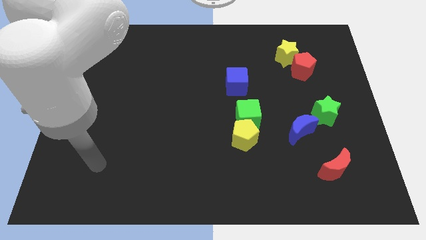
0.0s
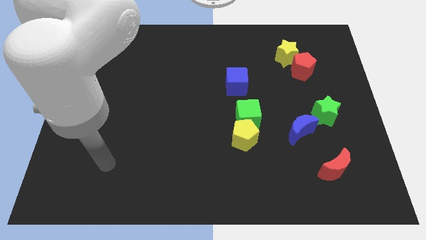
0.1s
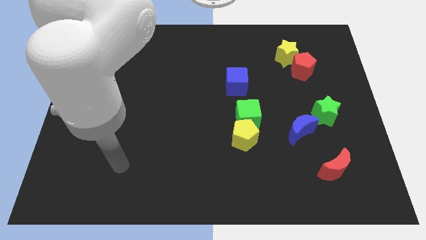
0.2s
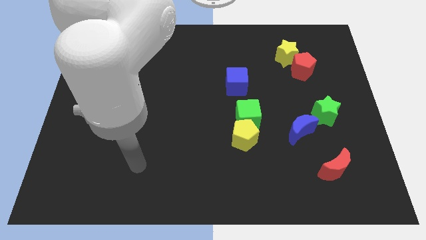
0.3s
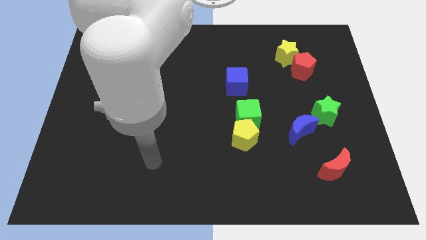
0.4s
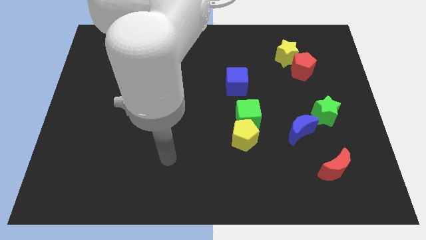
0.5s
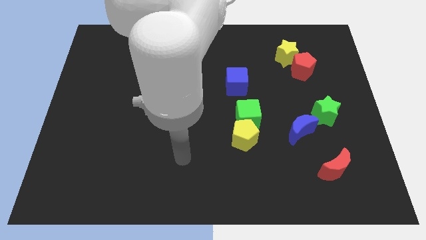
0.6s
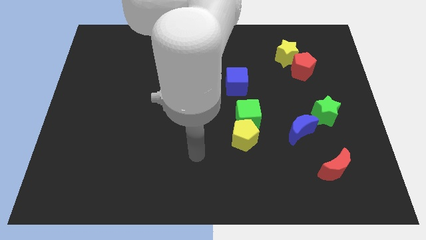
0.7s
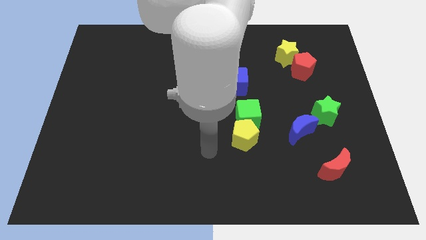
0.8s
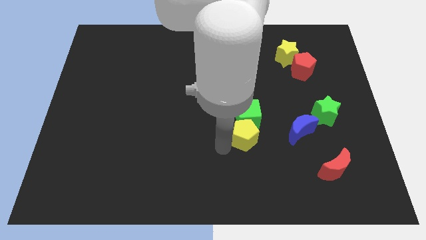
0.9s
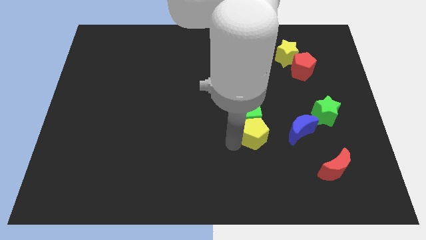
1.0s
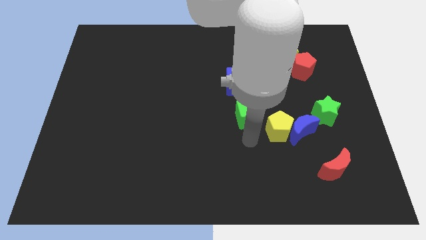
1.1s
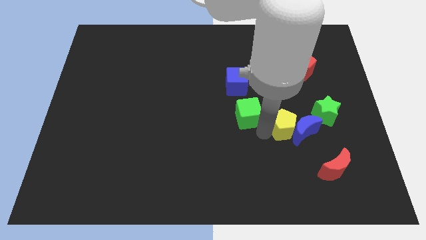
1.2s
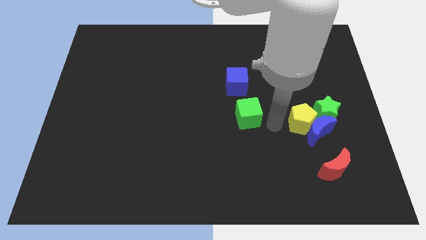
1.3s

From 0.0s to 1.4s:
move the green cube away from the yellow pentagon

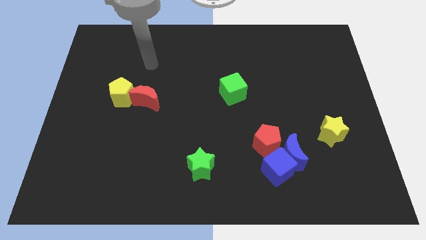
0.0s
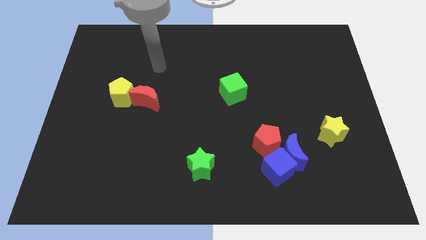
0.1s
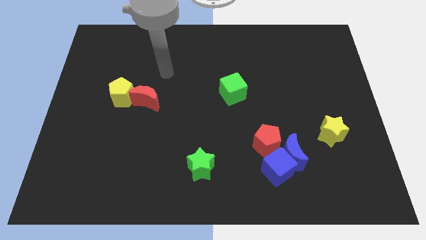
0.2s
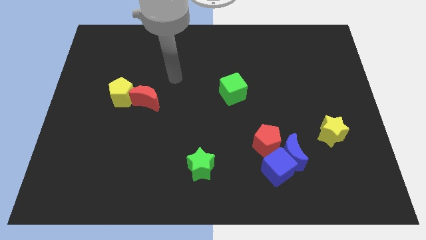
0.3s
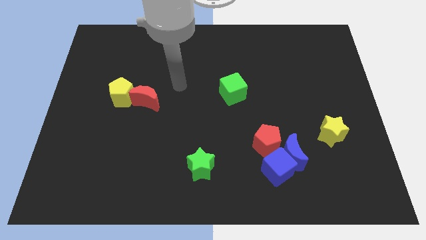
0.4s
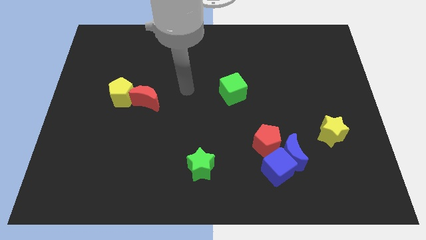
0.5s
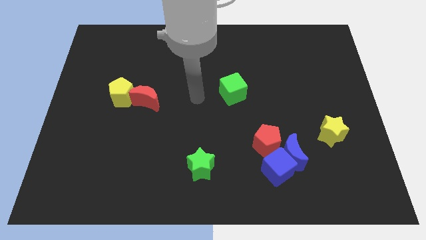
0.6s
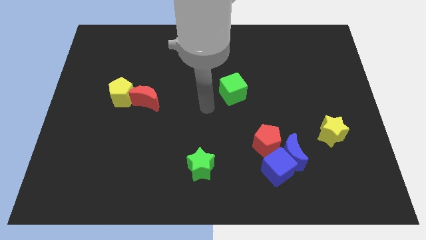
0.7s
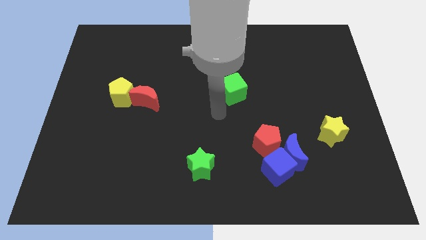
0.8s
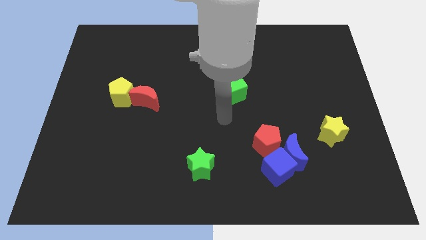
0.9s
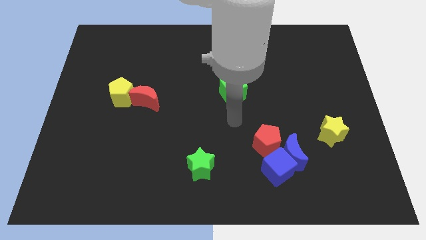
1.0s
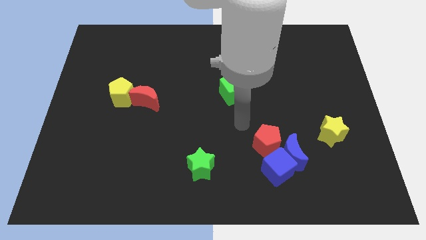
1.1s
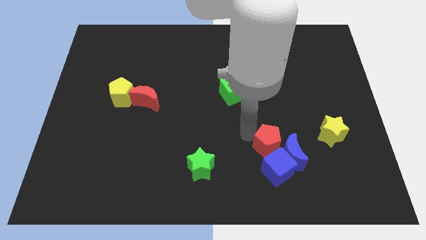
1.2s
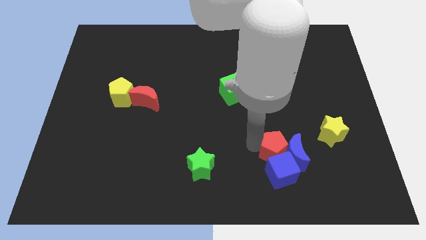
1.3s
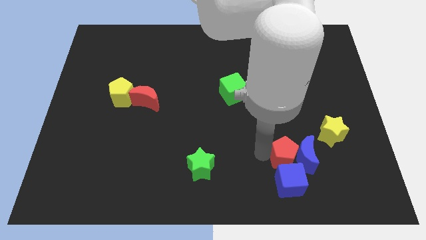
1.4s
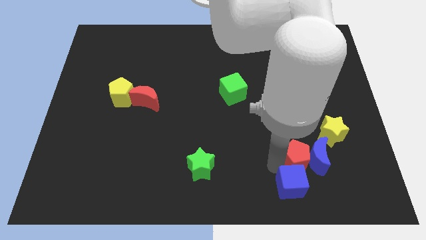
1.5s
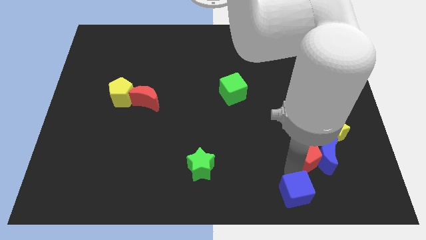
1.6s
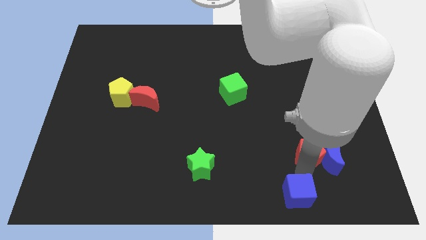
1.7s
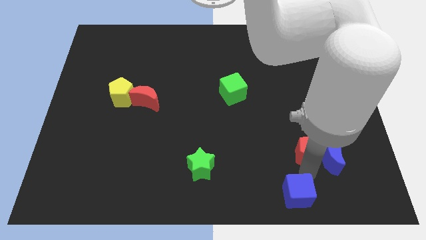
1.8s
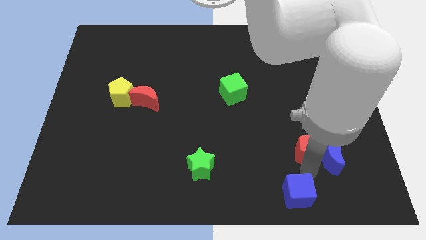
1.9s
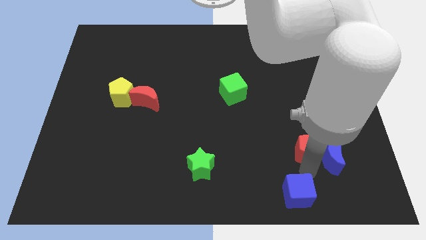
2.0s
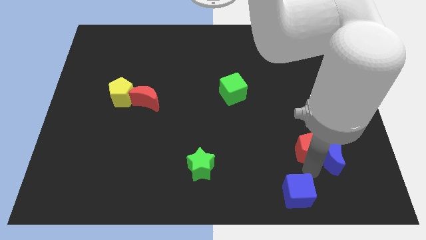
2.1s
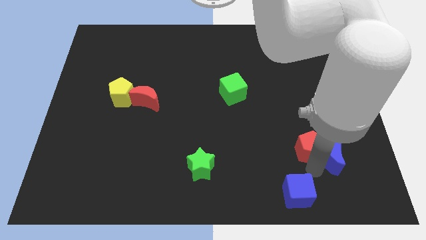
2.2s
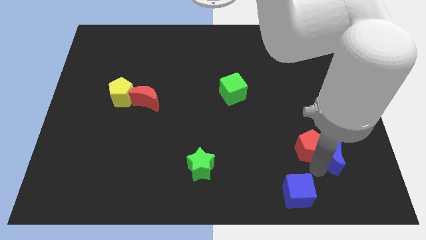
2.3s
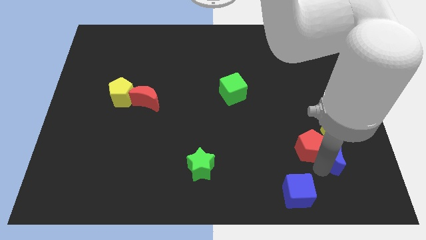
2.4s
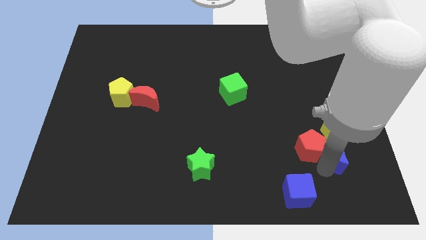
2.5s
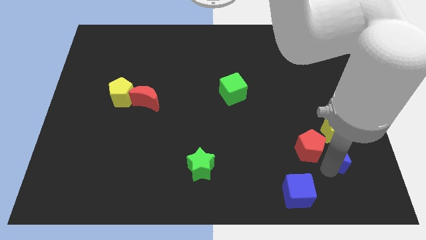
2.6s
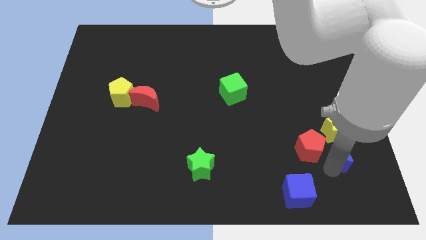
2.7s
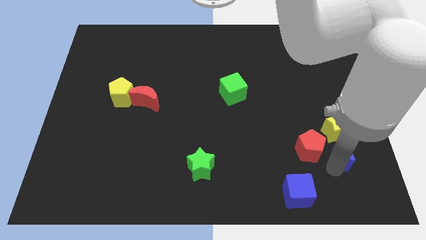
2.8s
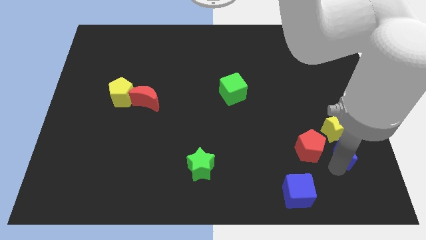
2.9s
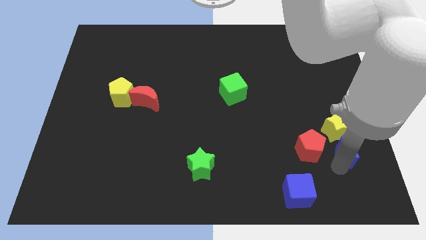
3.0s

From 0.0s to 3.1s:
separate the blue moon from the blue cube and red pentagon

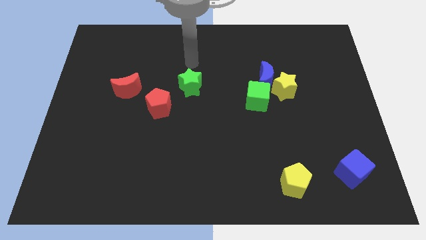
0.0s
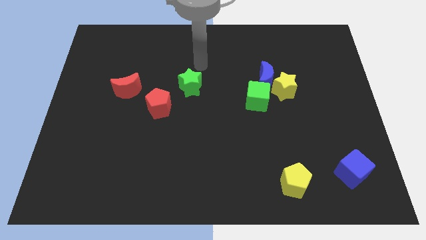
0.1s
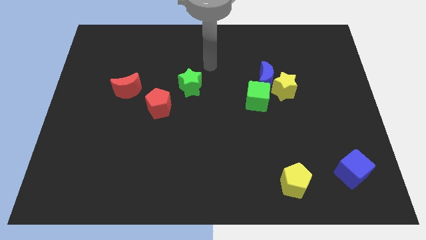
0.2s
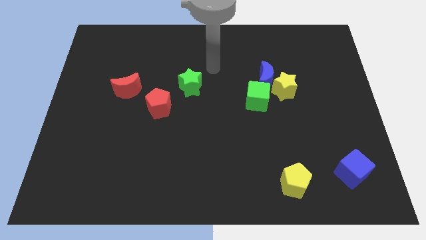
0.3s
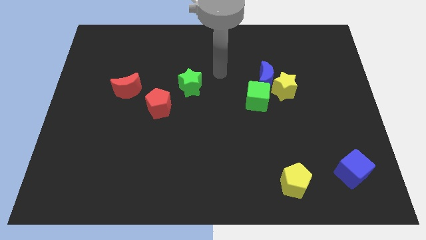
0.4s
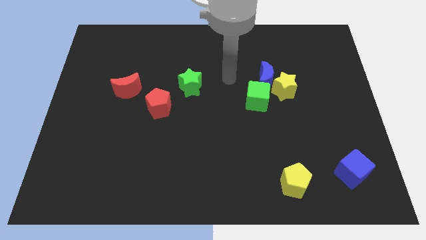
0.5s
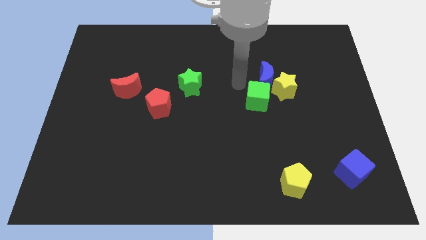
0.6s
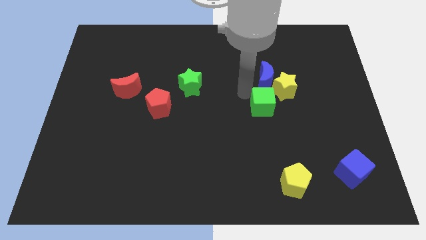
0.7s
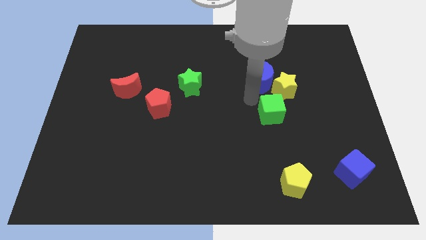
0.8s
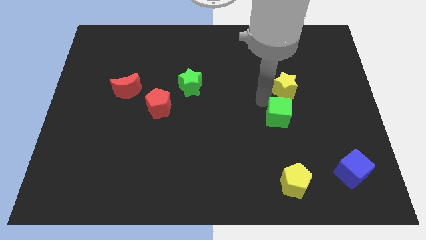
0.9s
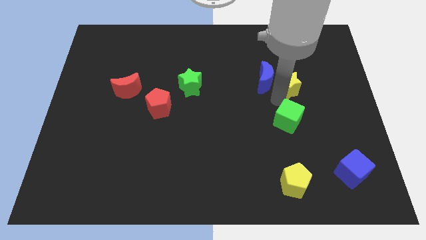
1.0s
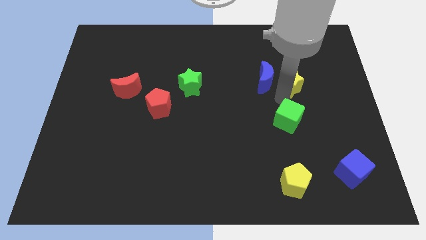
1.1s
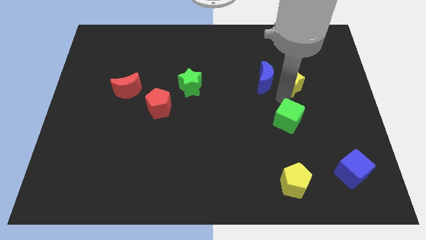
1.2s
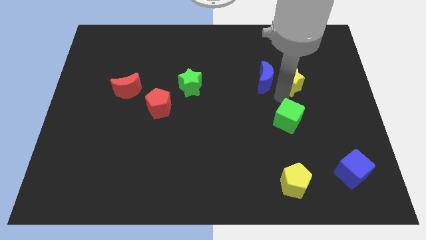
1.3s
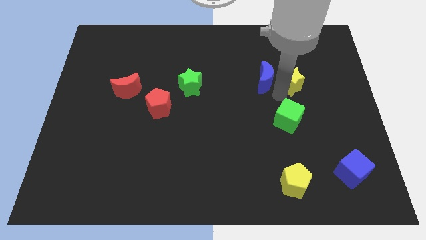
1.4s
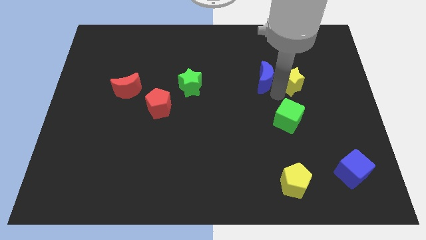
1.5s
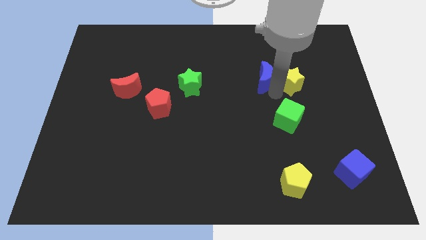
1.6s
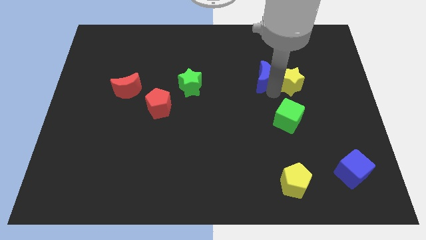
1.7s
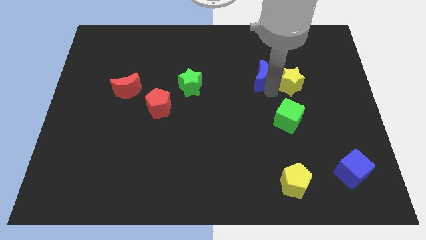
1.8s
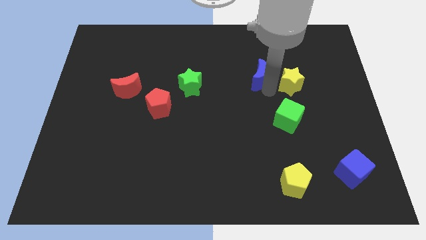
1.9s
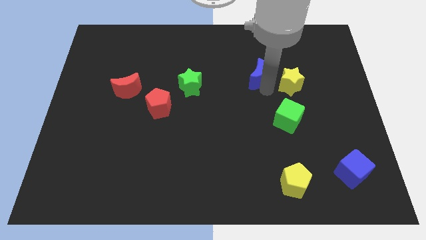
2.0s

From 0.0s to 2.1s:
move the blue moon away from the yellow star and green cube

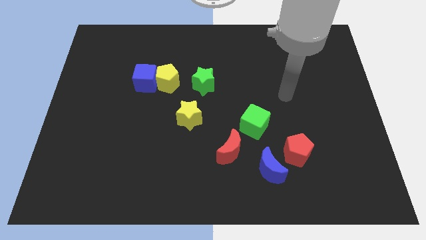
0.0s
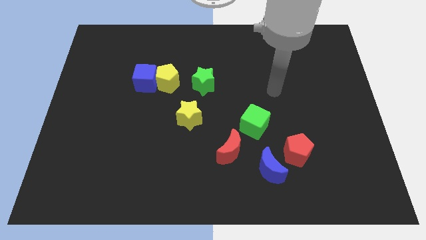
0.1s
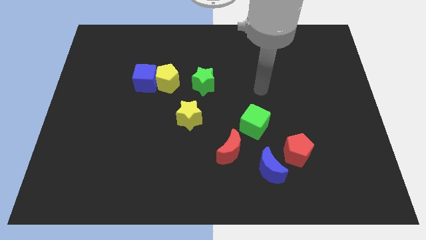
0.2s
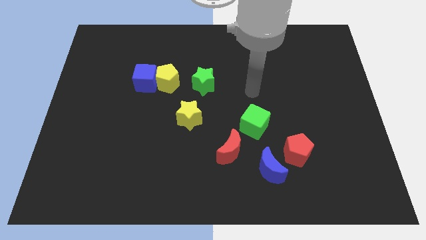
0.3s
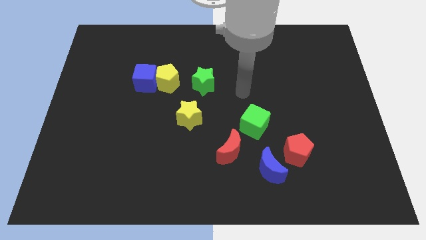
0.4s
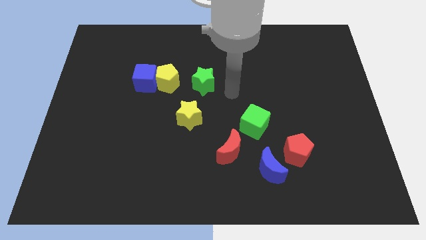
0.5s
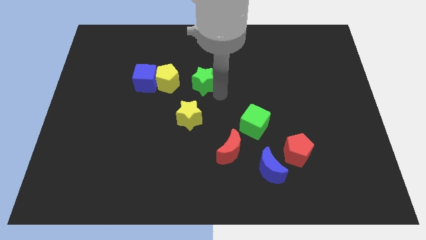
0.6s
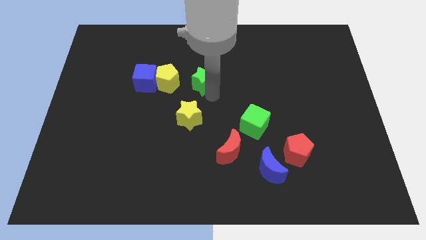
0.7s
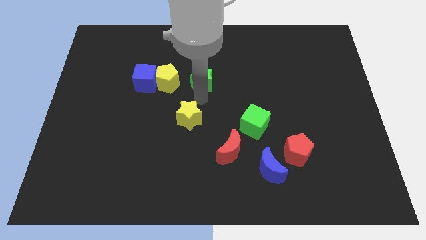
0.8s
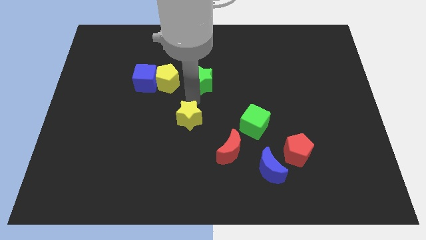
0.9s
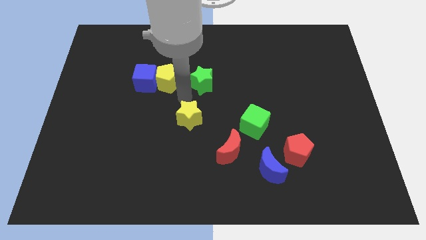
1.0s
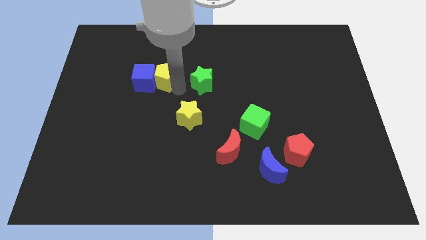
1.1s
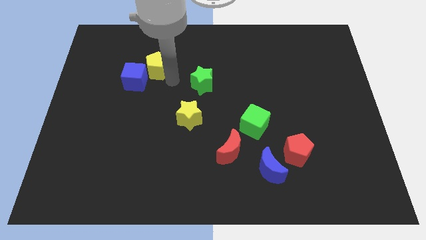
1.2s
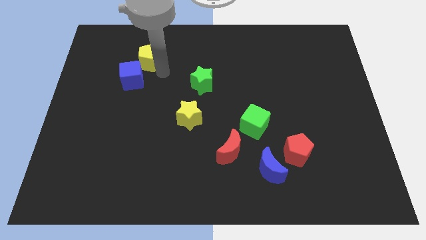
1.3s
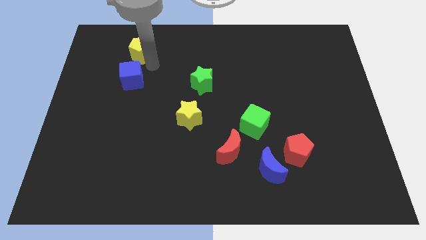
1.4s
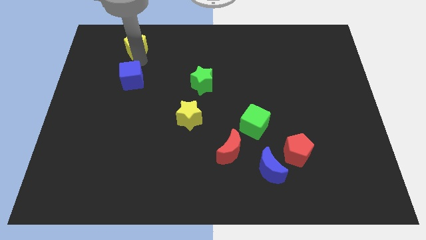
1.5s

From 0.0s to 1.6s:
move the blue cube away from the yellow pentagon

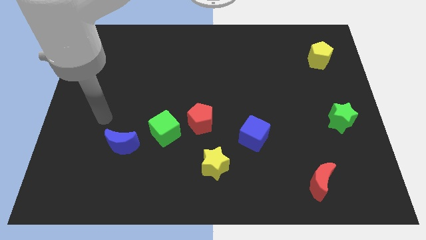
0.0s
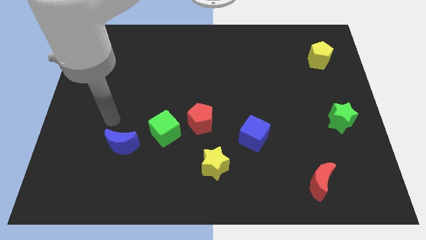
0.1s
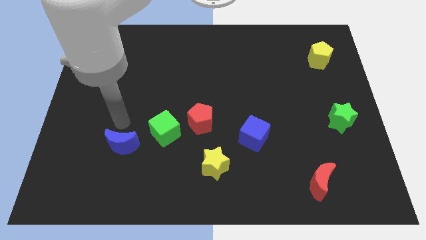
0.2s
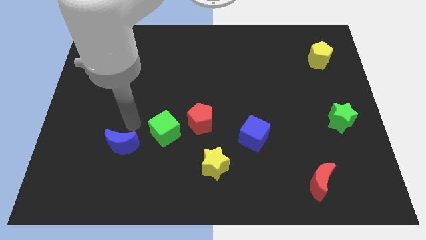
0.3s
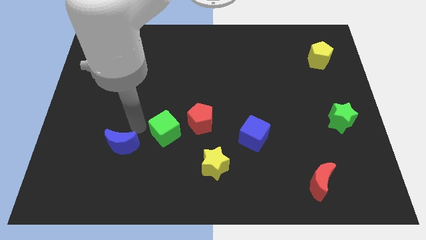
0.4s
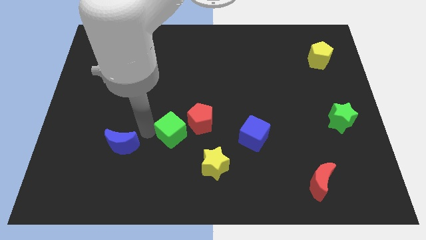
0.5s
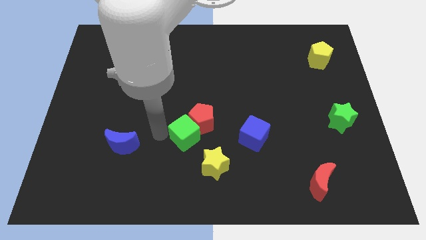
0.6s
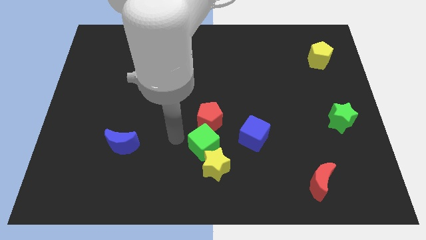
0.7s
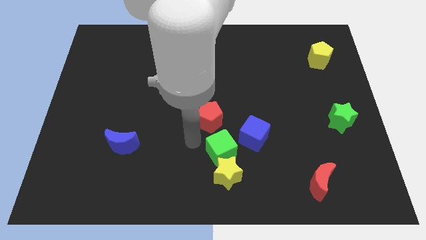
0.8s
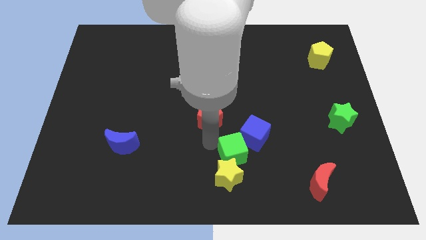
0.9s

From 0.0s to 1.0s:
separate the red pentagon from the green cube
